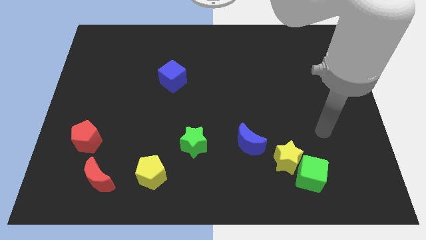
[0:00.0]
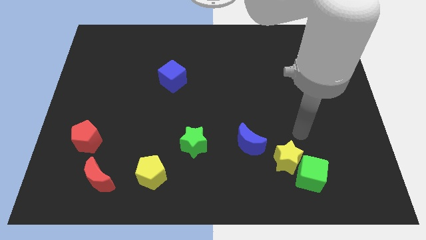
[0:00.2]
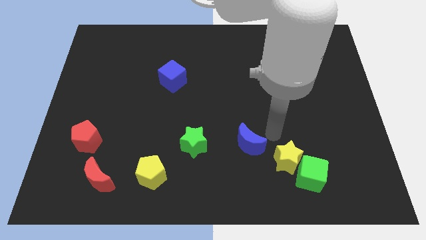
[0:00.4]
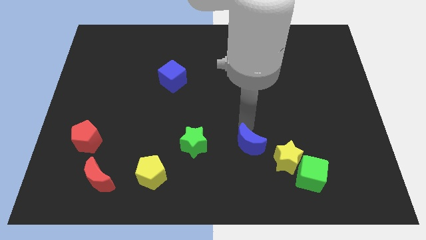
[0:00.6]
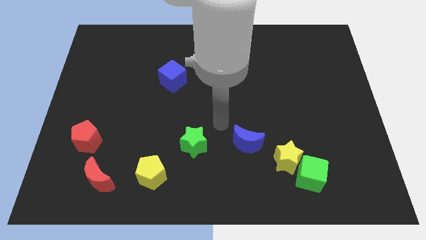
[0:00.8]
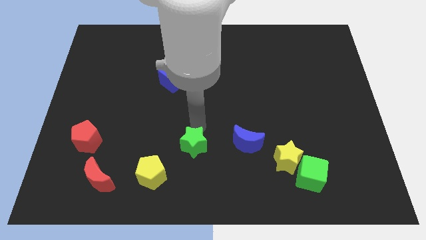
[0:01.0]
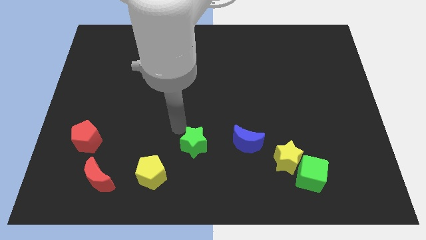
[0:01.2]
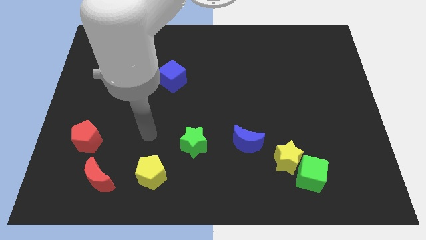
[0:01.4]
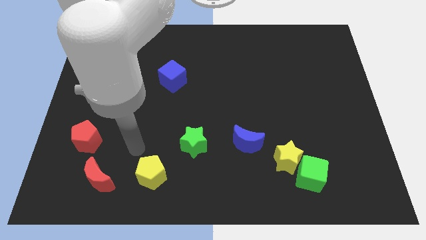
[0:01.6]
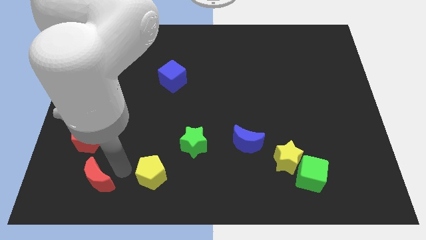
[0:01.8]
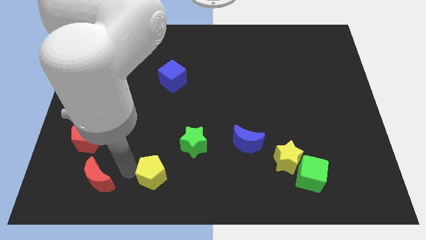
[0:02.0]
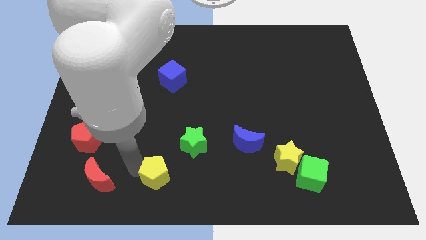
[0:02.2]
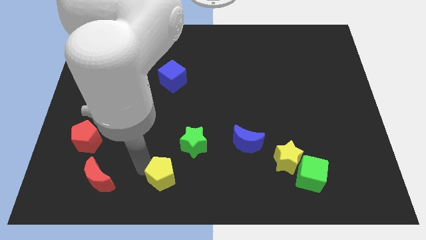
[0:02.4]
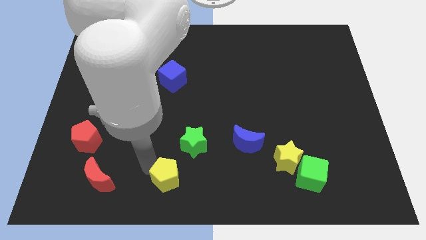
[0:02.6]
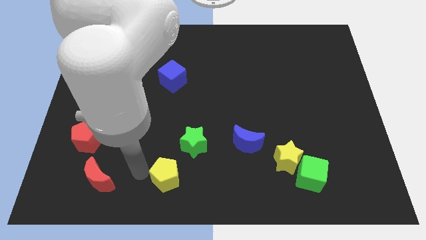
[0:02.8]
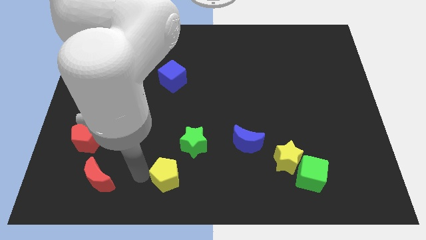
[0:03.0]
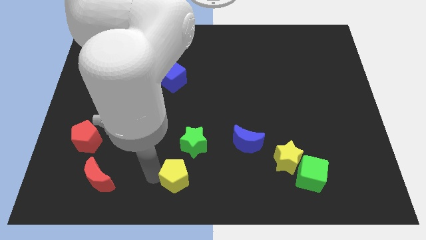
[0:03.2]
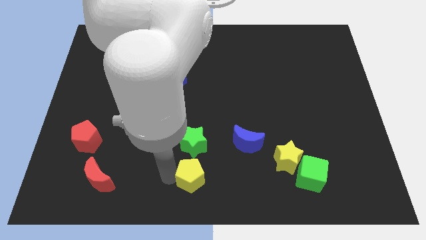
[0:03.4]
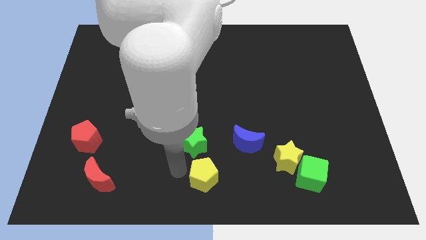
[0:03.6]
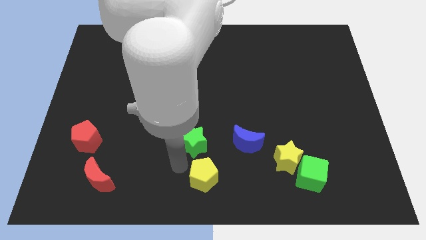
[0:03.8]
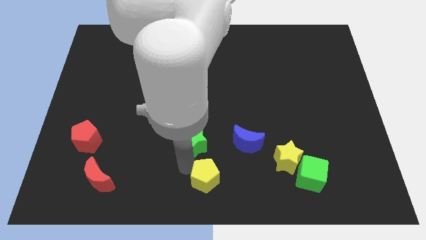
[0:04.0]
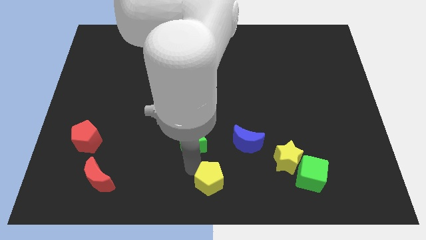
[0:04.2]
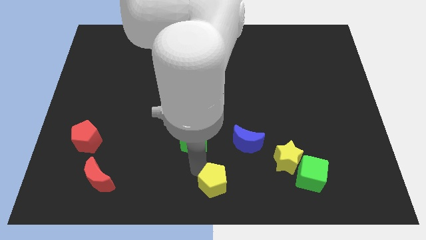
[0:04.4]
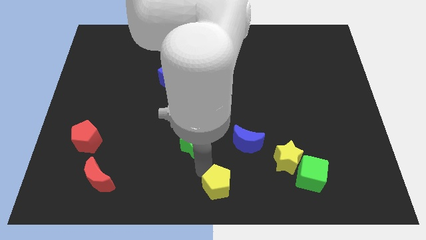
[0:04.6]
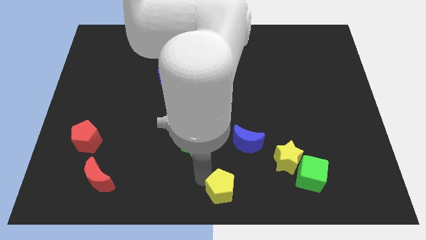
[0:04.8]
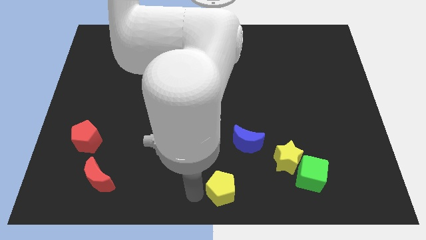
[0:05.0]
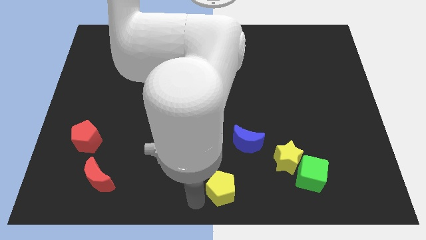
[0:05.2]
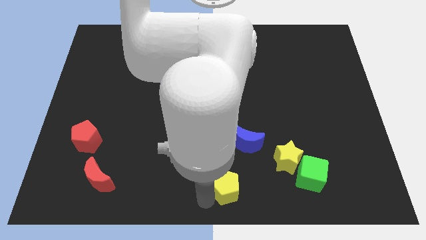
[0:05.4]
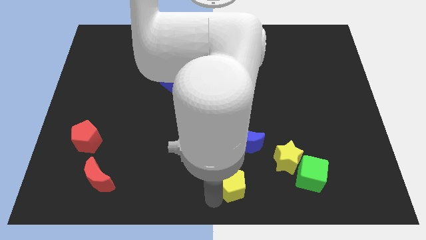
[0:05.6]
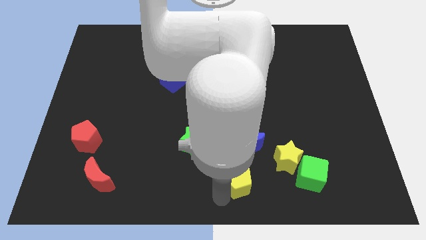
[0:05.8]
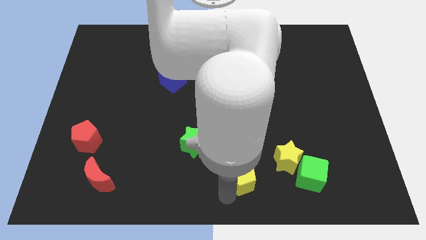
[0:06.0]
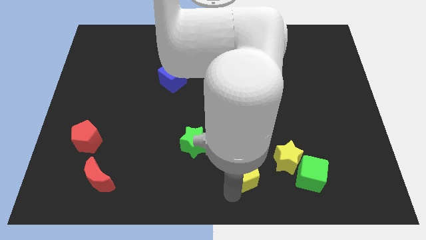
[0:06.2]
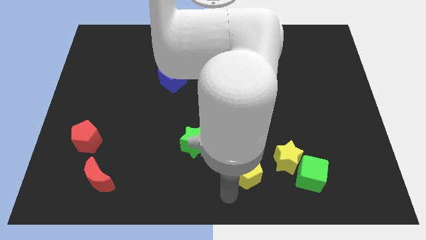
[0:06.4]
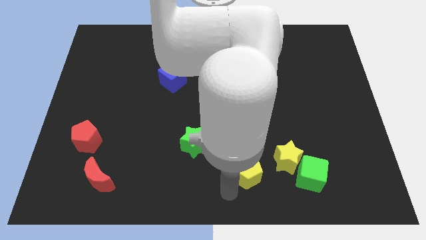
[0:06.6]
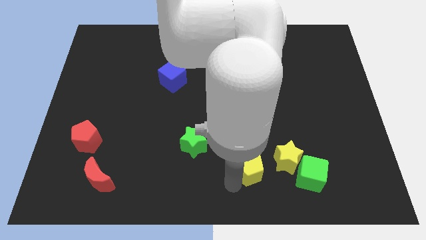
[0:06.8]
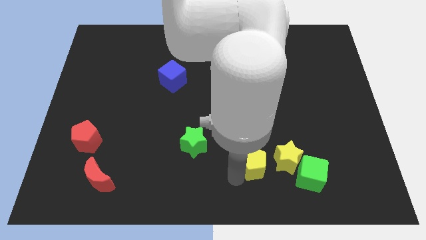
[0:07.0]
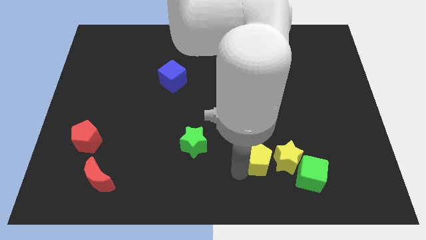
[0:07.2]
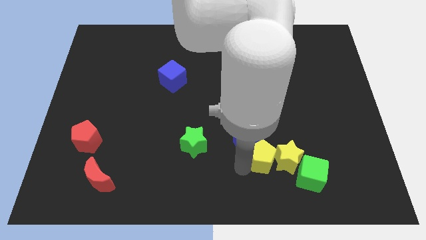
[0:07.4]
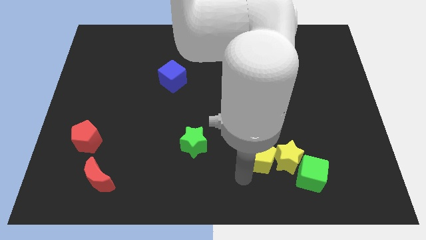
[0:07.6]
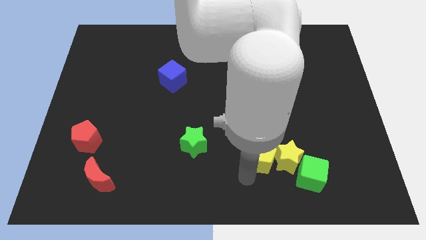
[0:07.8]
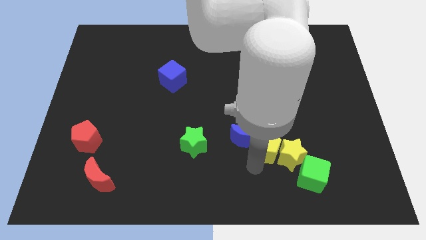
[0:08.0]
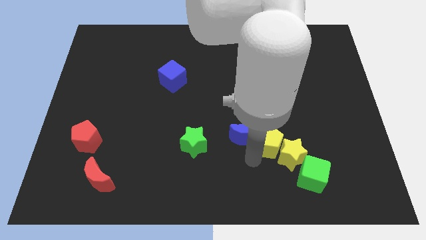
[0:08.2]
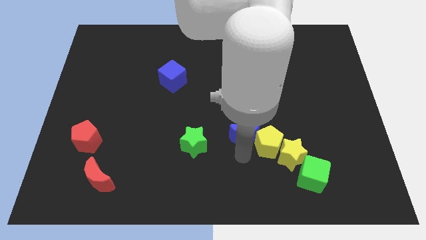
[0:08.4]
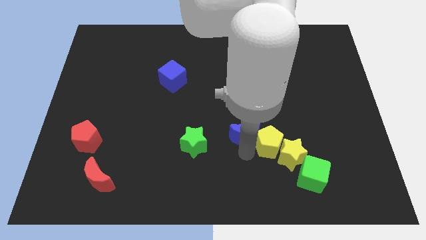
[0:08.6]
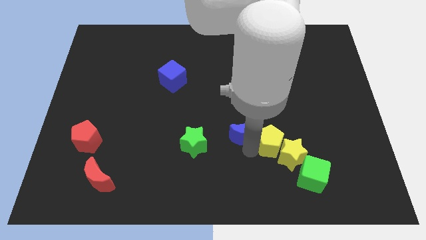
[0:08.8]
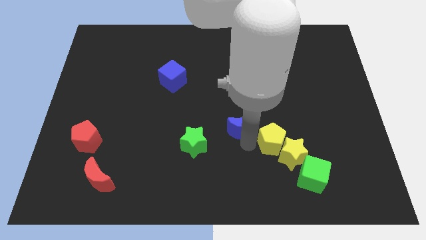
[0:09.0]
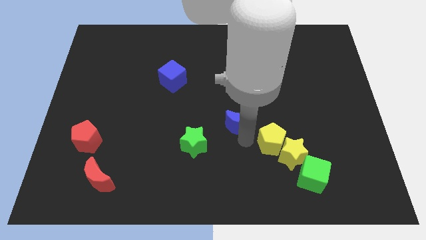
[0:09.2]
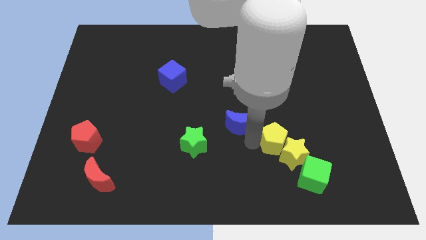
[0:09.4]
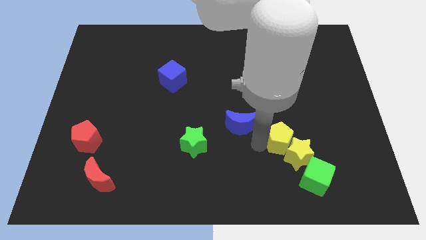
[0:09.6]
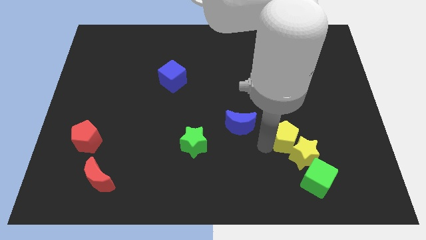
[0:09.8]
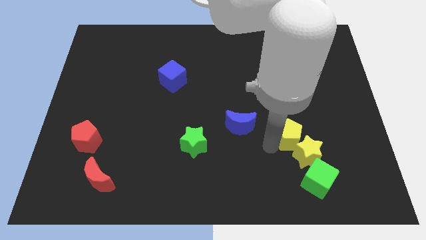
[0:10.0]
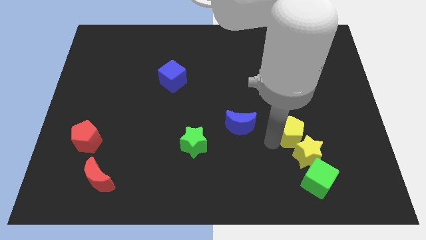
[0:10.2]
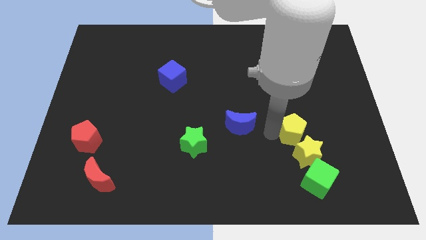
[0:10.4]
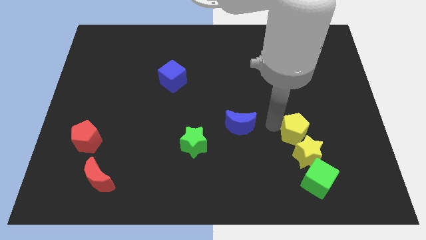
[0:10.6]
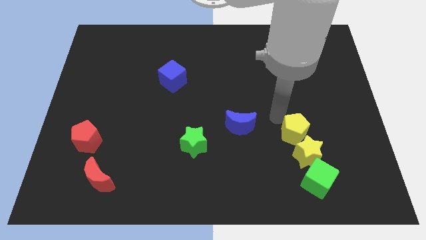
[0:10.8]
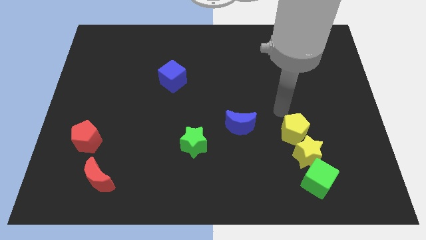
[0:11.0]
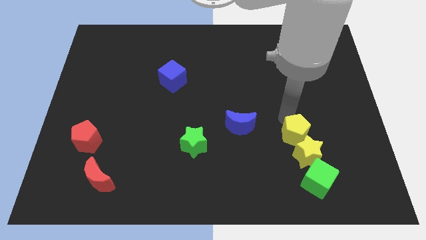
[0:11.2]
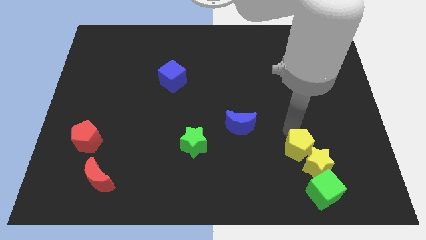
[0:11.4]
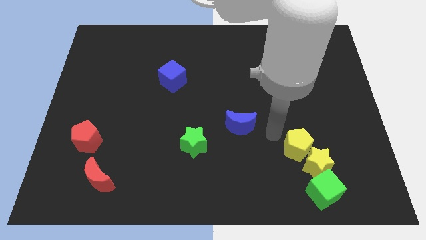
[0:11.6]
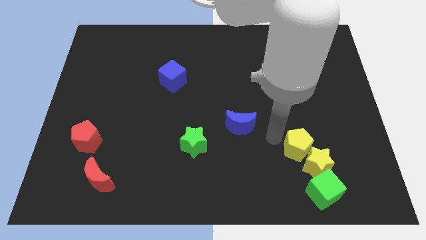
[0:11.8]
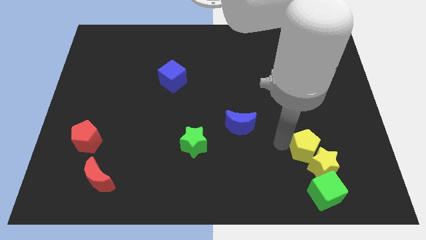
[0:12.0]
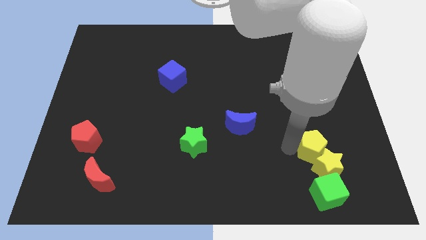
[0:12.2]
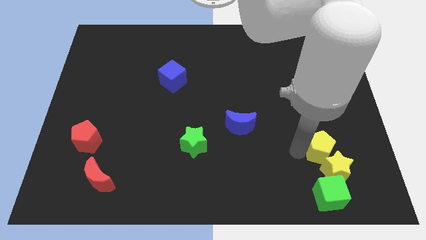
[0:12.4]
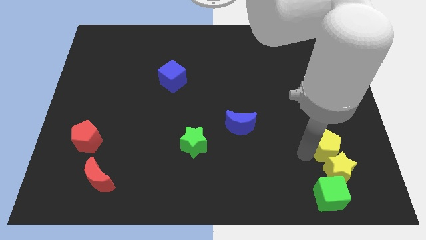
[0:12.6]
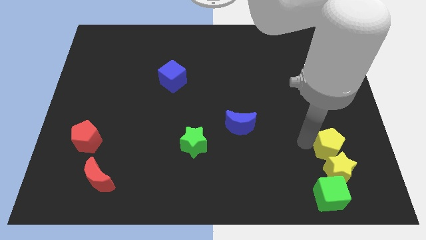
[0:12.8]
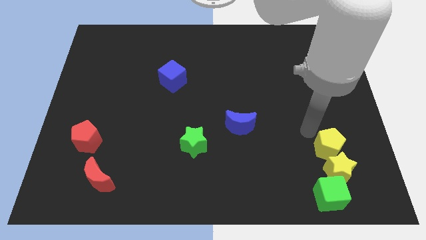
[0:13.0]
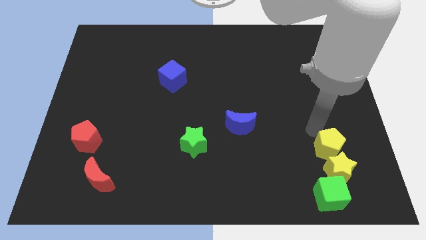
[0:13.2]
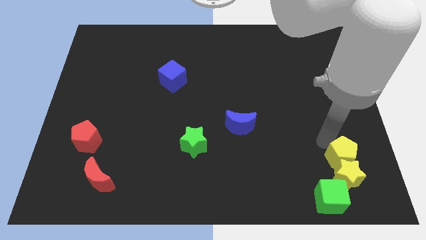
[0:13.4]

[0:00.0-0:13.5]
move the yellow pentagon to the top right of the green cube

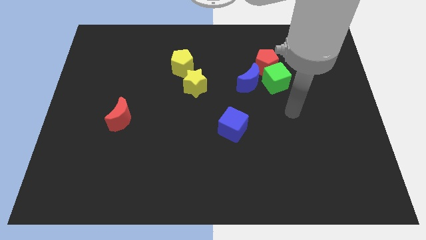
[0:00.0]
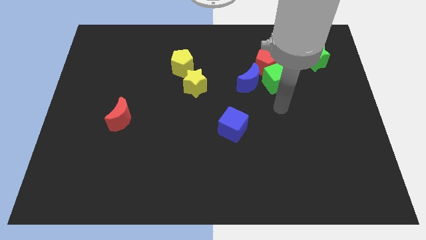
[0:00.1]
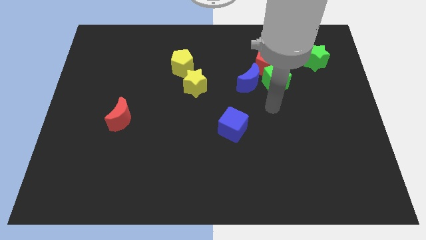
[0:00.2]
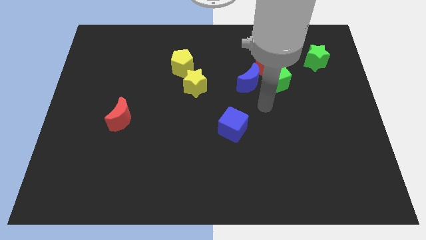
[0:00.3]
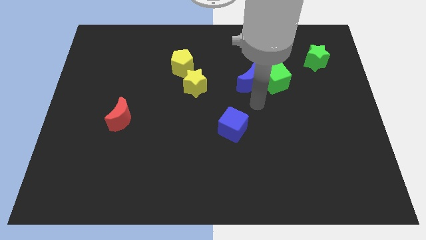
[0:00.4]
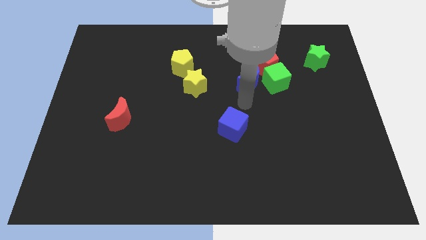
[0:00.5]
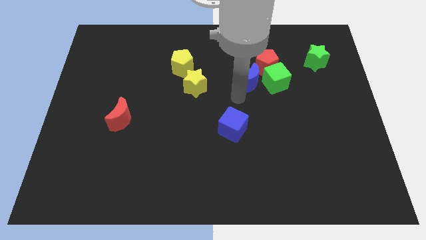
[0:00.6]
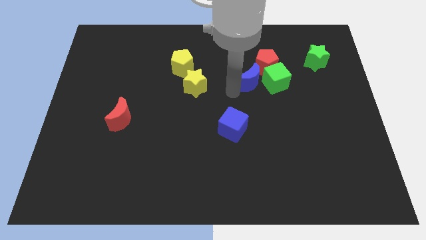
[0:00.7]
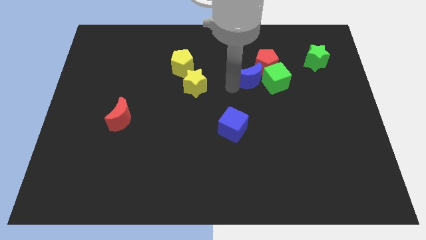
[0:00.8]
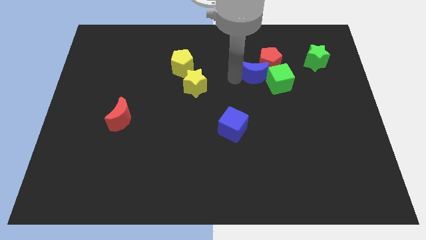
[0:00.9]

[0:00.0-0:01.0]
move the red pentagon to the right of the blue moon
